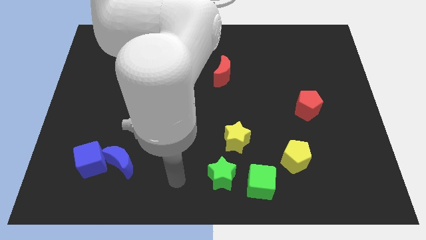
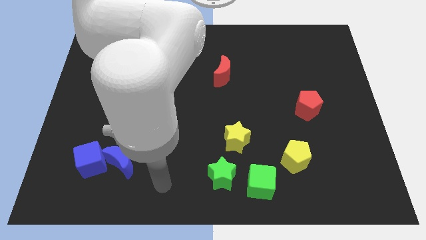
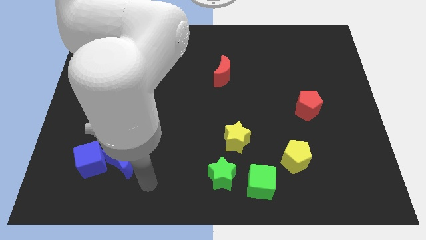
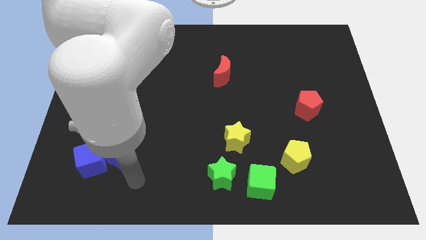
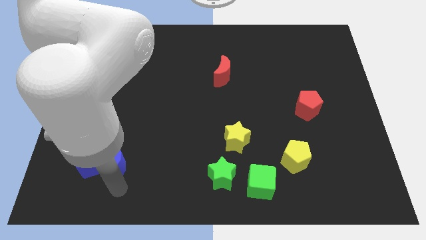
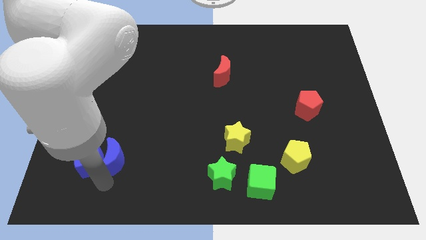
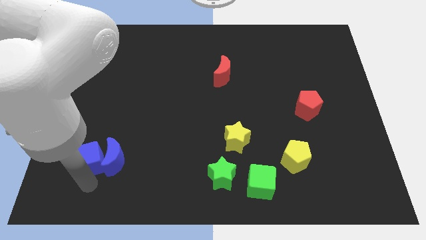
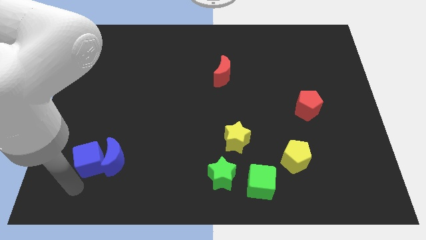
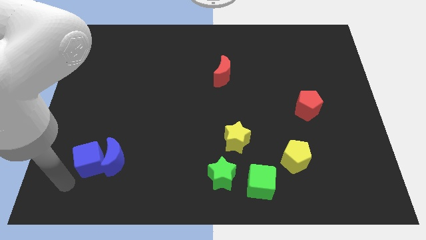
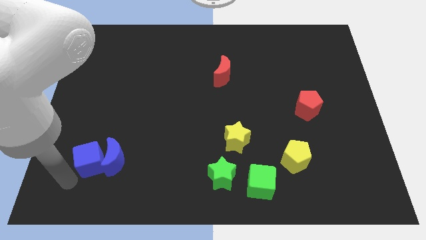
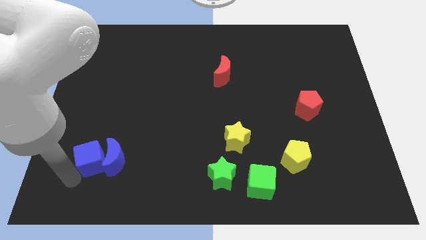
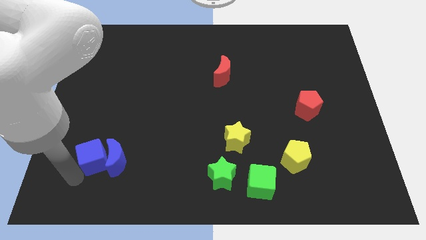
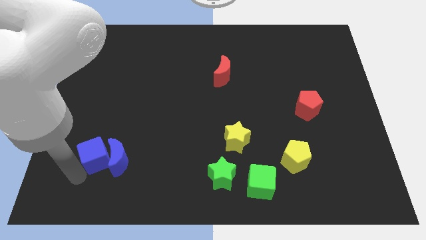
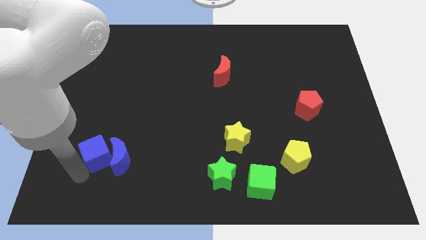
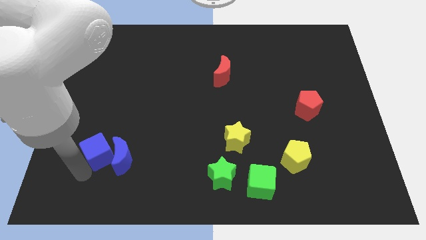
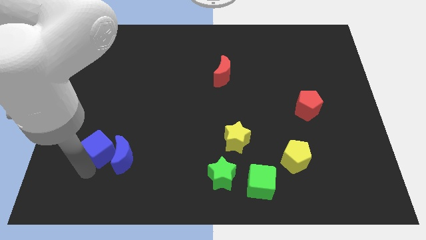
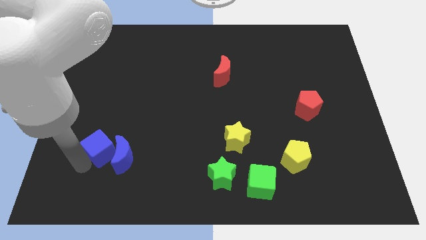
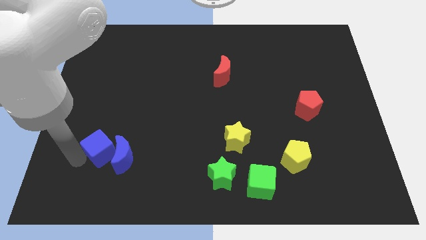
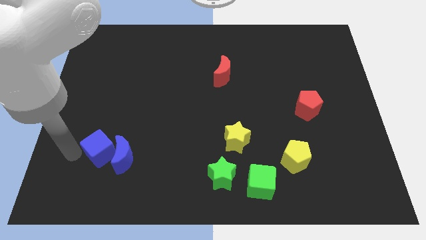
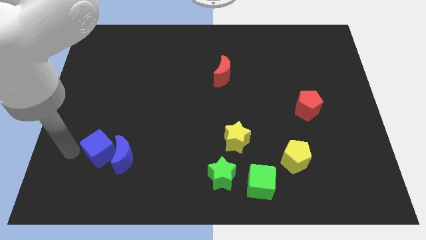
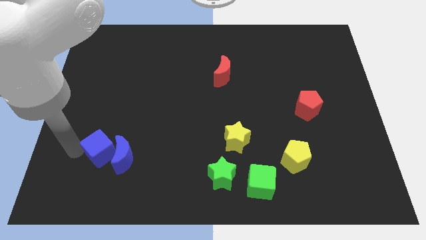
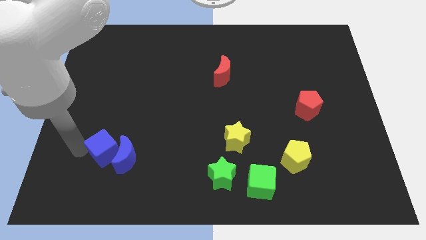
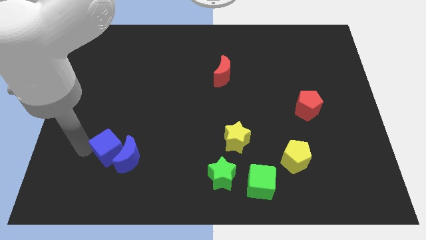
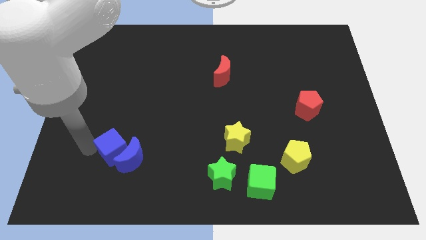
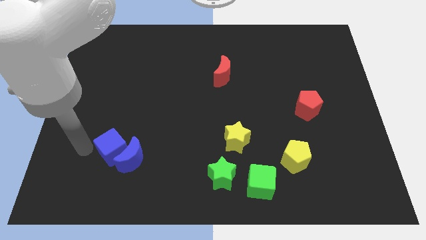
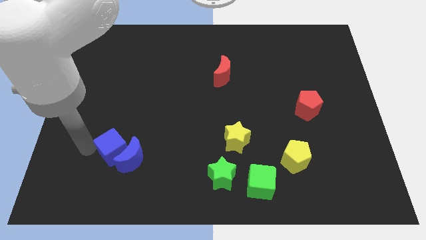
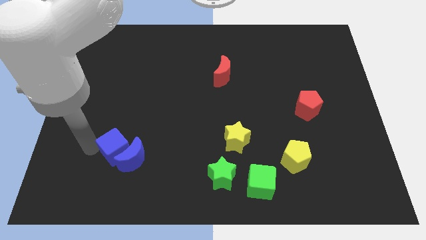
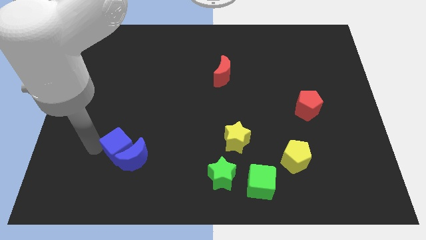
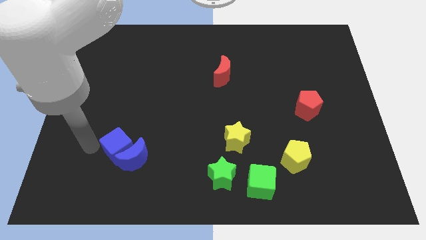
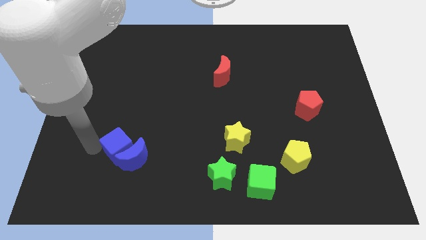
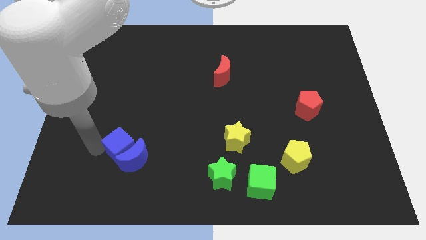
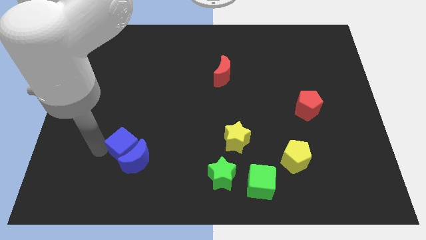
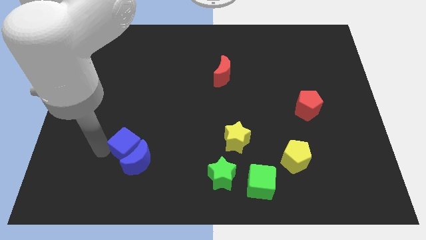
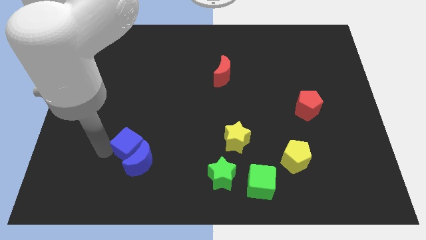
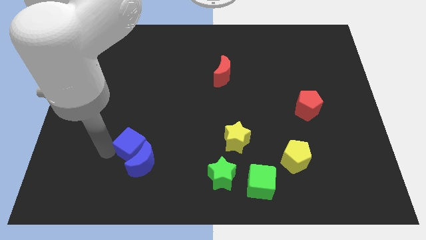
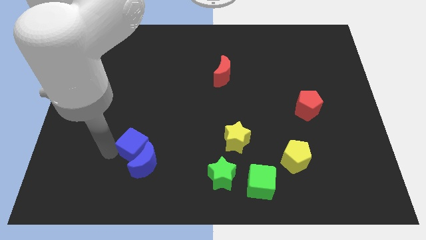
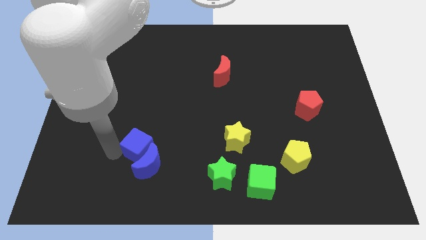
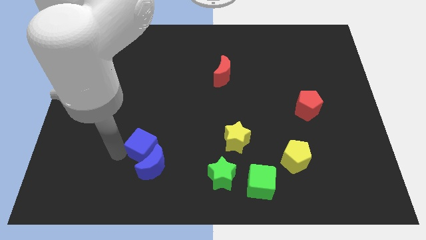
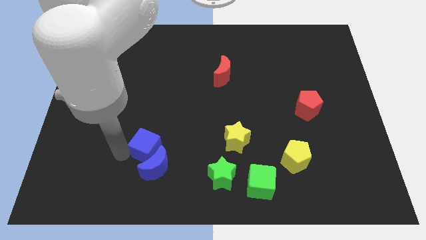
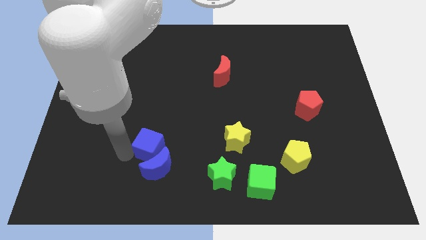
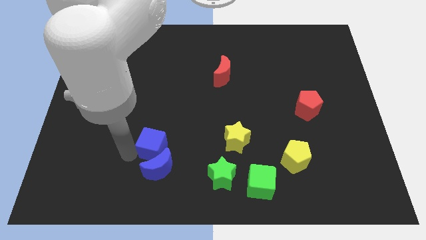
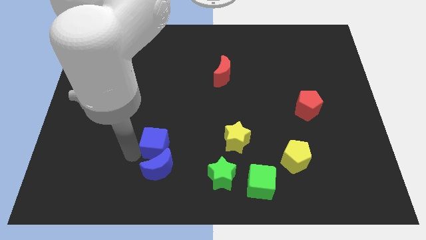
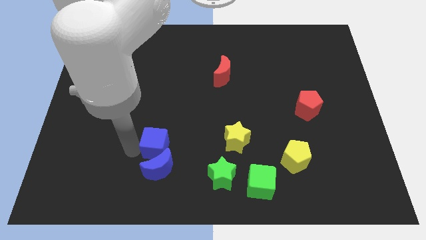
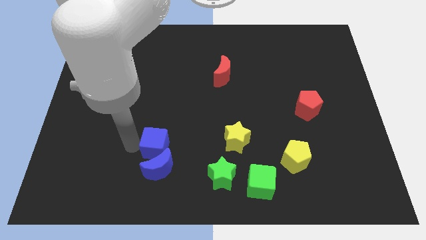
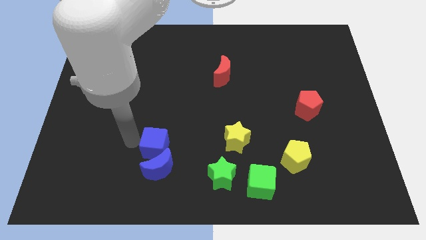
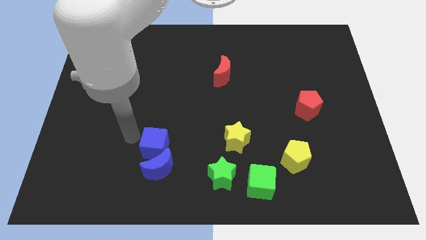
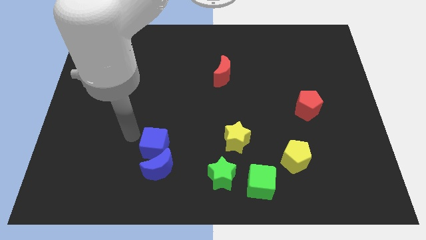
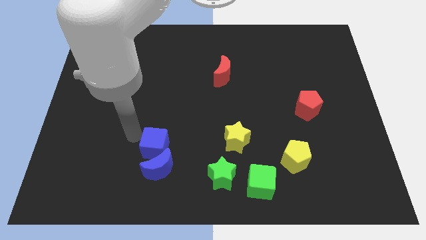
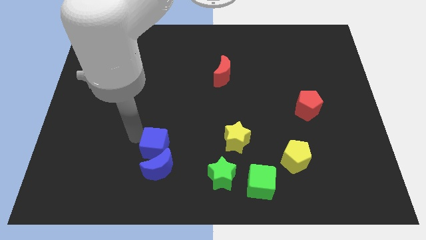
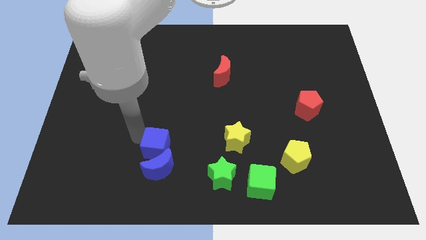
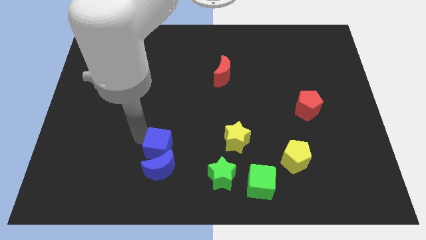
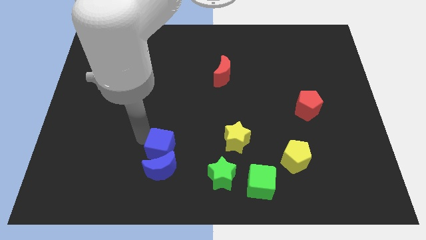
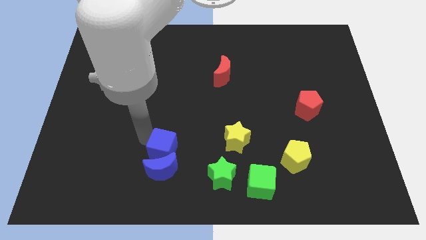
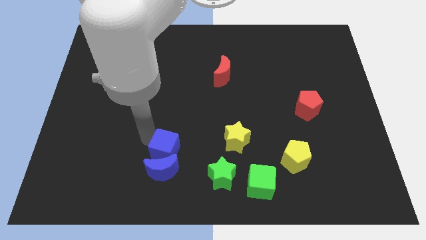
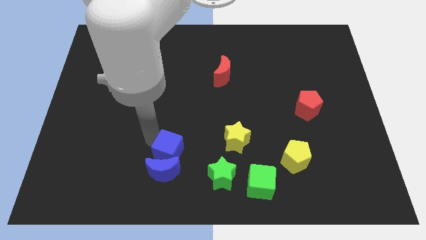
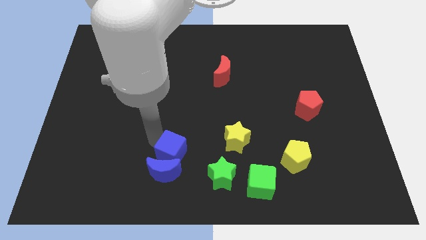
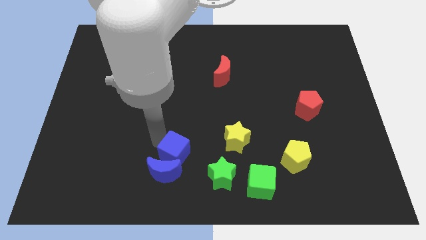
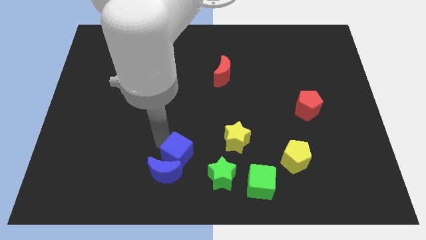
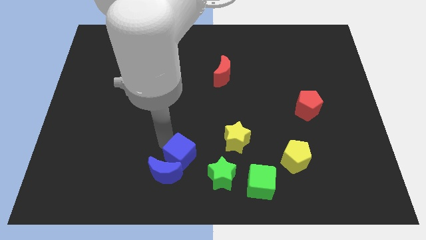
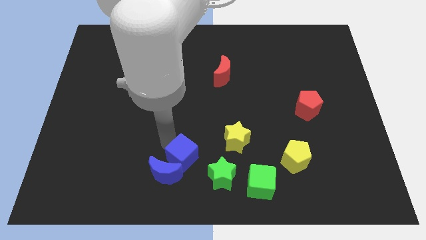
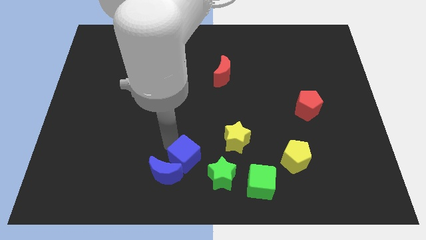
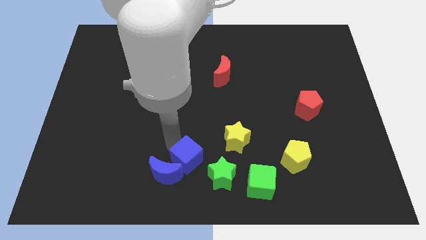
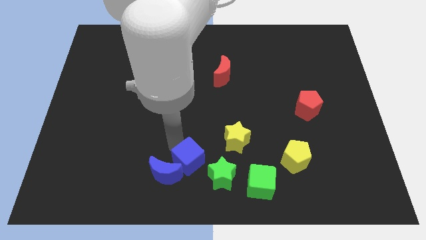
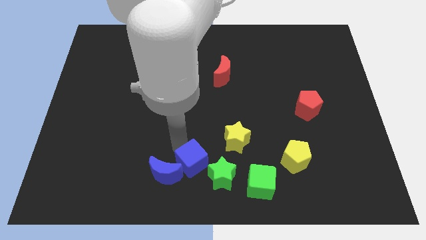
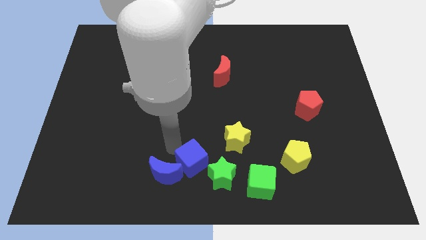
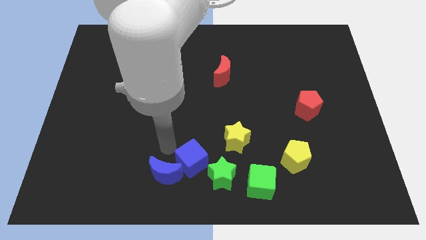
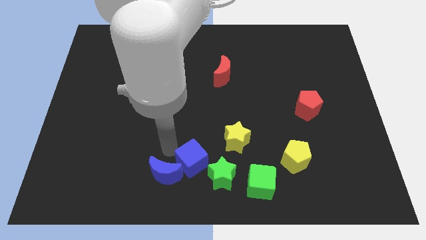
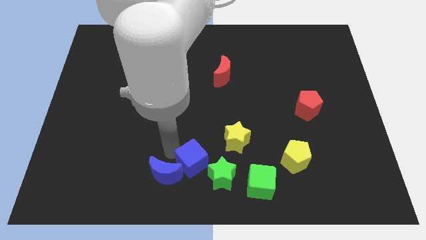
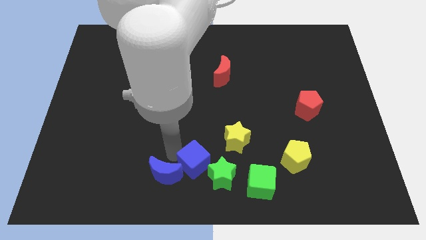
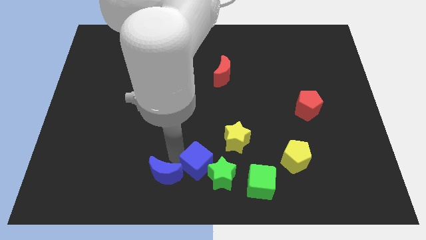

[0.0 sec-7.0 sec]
put the blue cube next to the green star

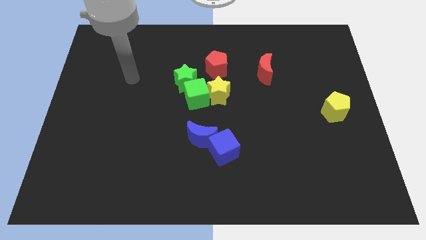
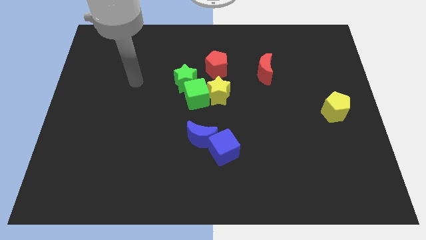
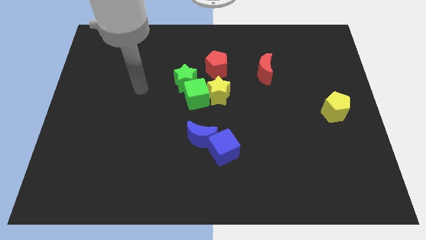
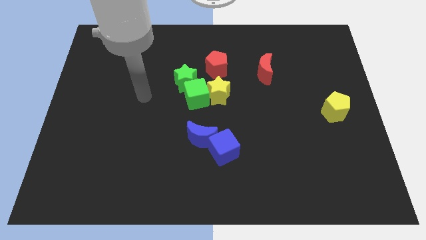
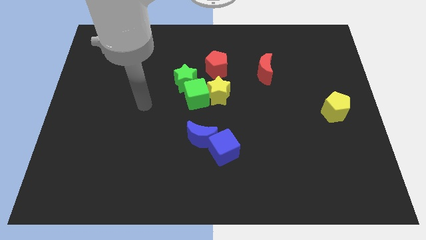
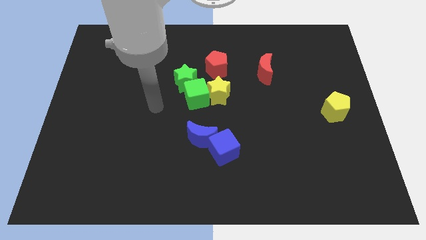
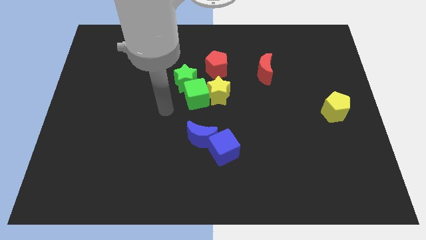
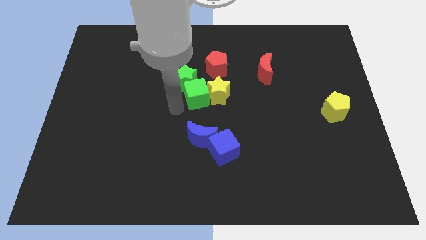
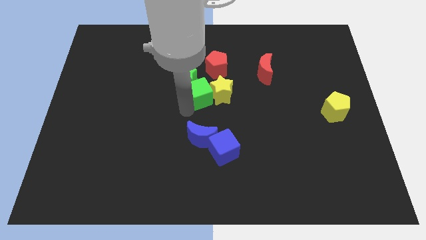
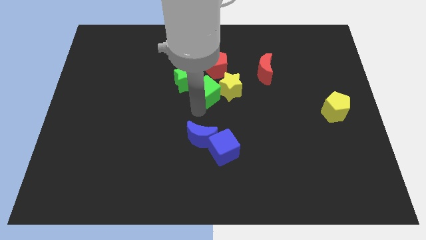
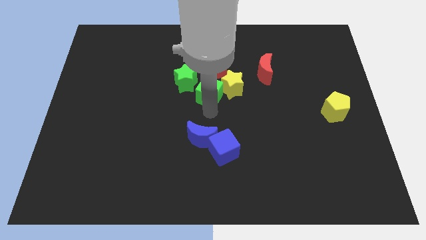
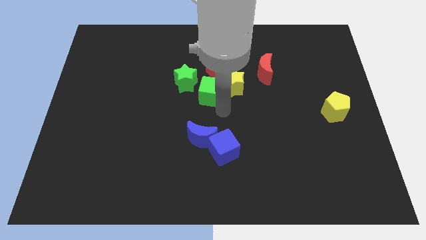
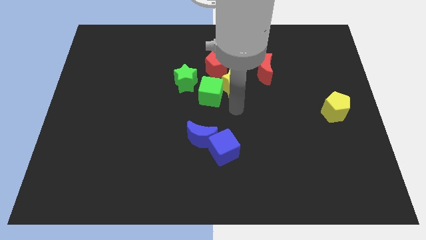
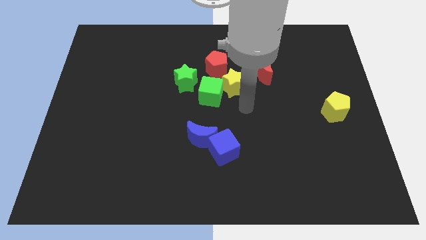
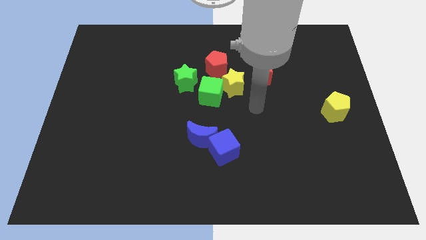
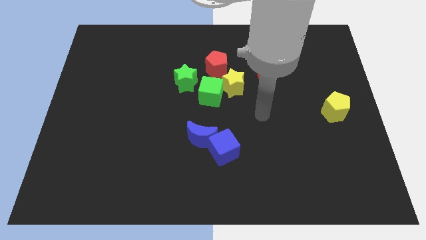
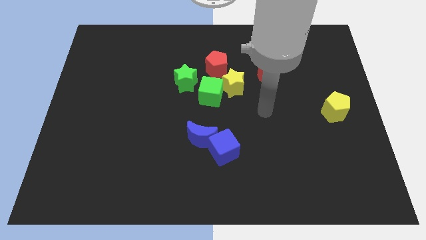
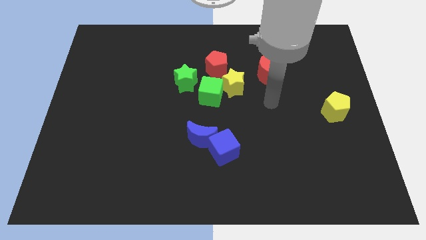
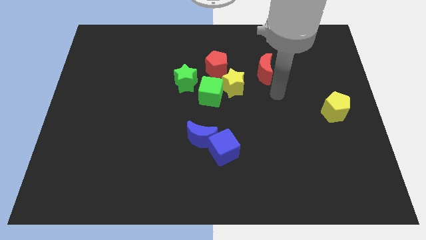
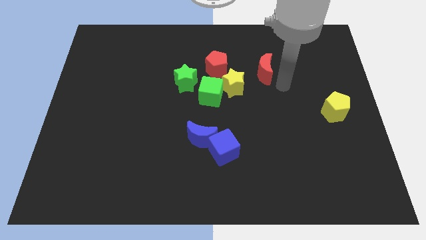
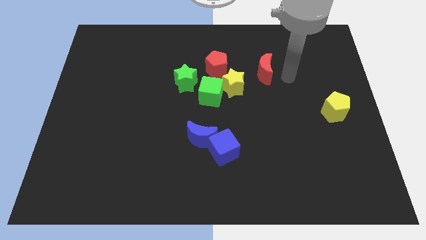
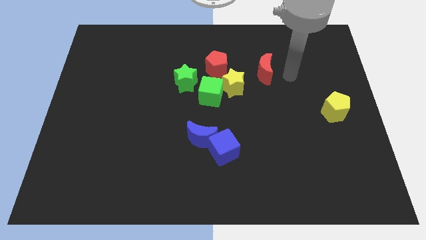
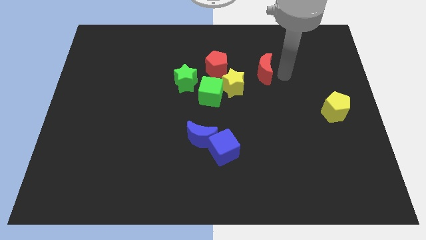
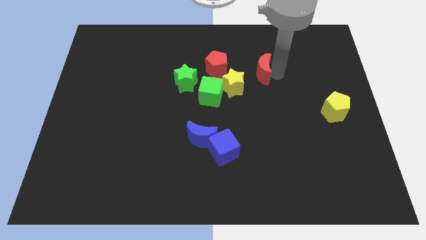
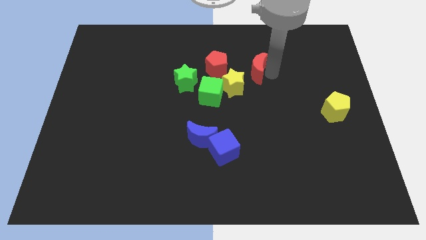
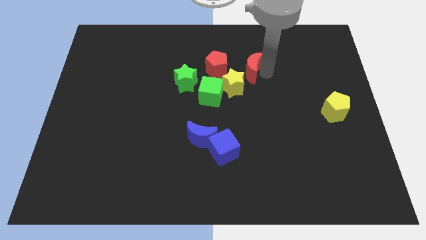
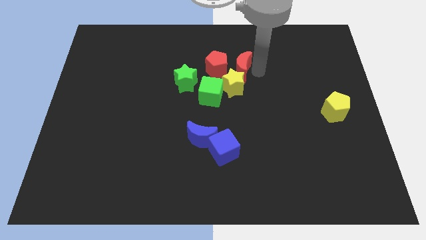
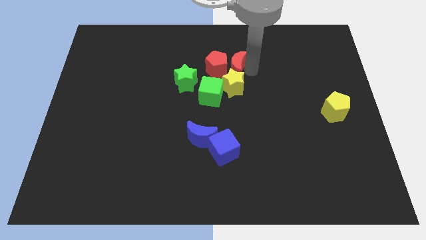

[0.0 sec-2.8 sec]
push the red moon towards the red pentagon
